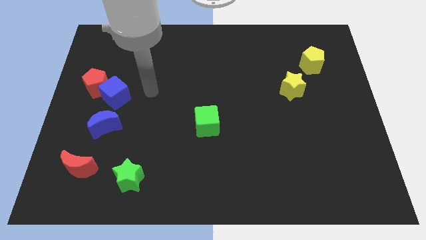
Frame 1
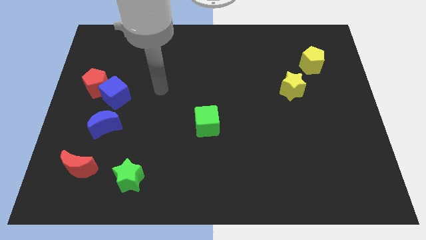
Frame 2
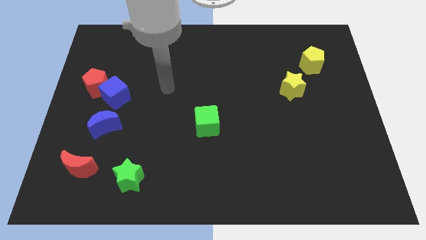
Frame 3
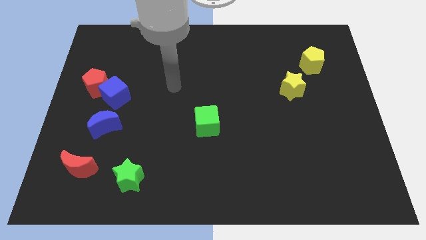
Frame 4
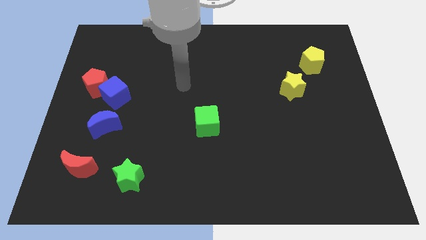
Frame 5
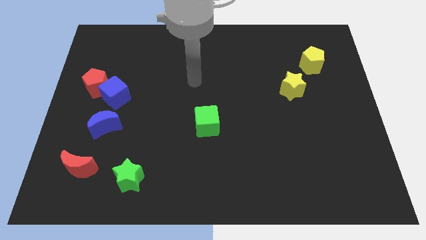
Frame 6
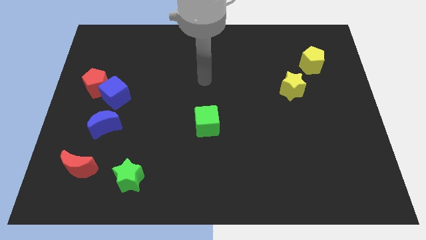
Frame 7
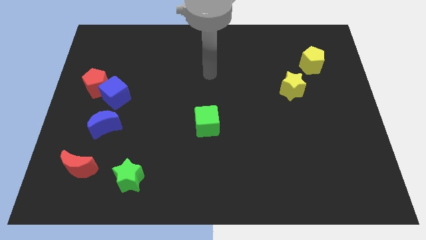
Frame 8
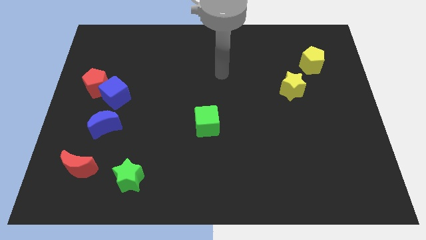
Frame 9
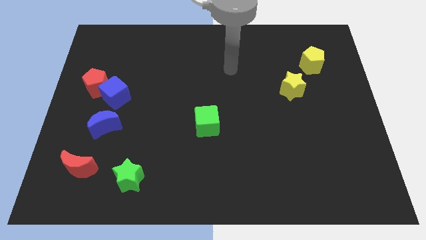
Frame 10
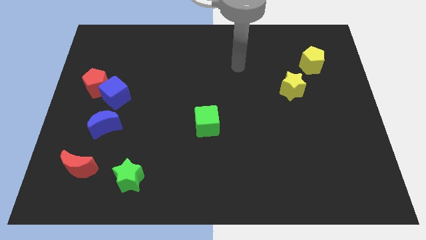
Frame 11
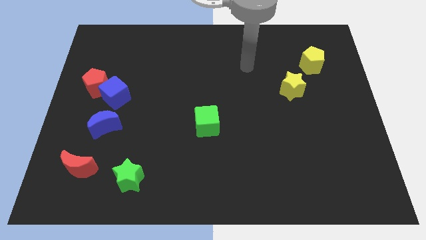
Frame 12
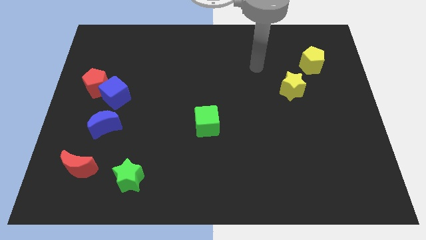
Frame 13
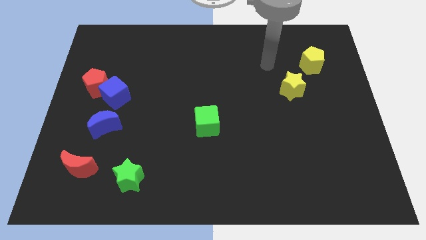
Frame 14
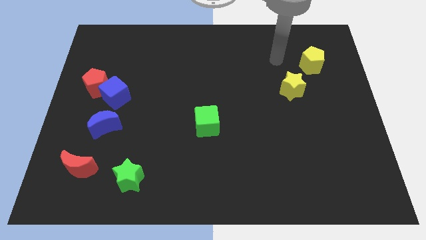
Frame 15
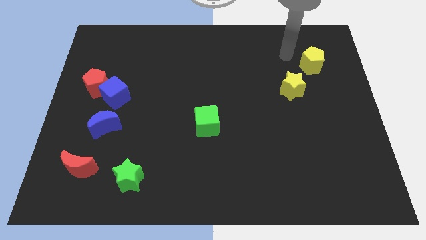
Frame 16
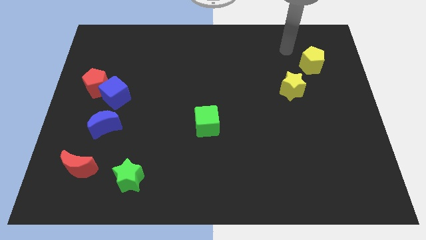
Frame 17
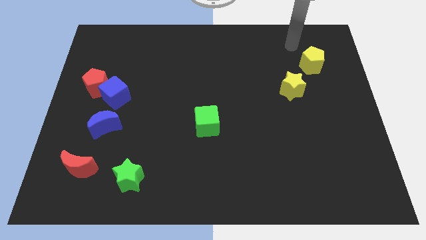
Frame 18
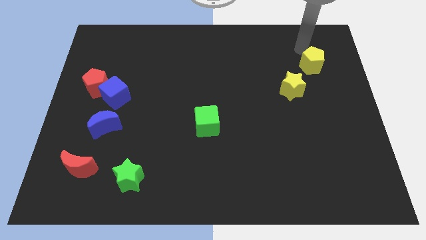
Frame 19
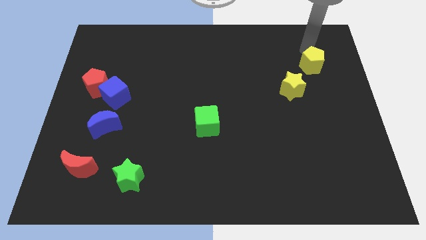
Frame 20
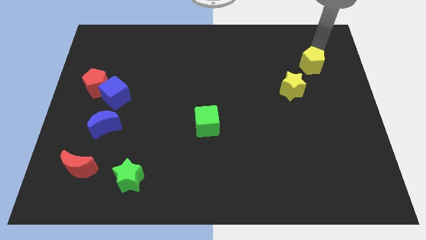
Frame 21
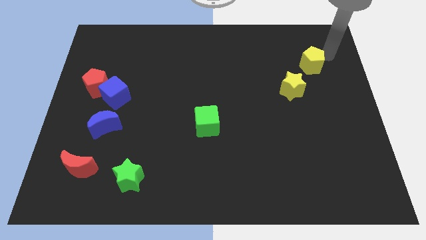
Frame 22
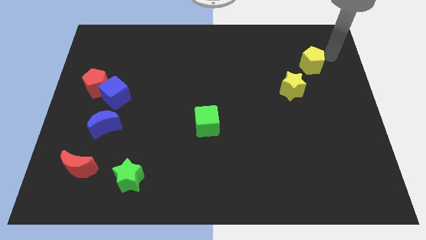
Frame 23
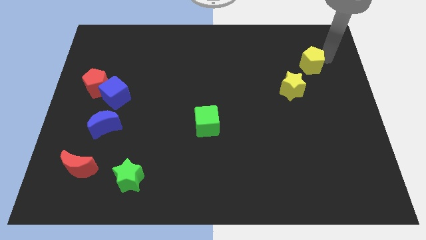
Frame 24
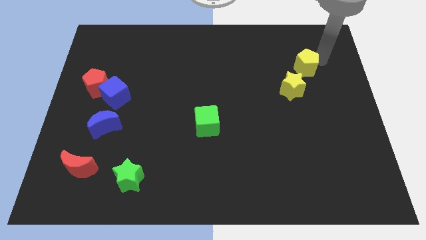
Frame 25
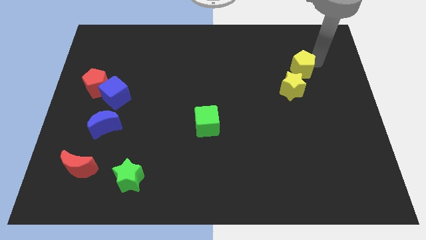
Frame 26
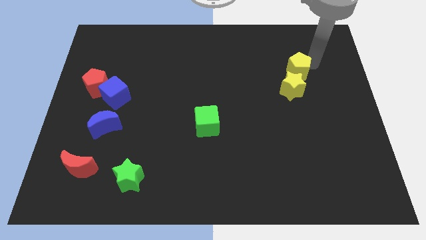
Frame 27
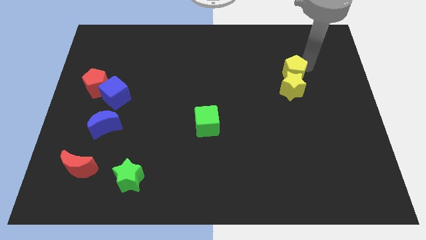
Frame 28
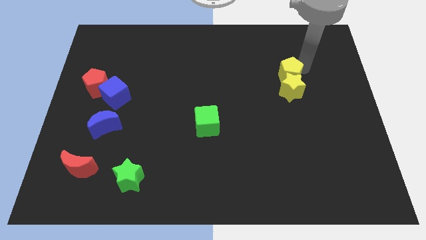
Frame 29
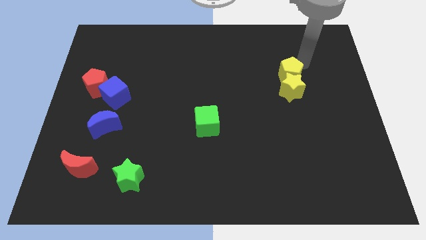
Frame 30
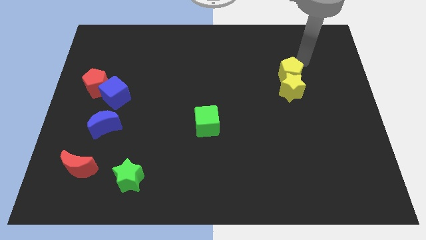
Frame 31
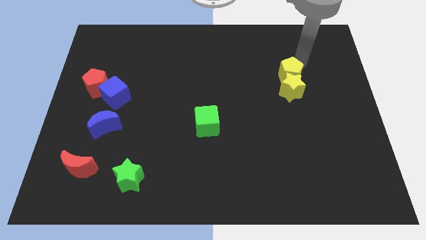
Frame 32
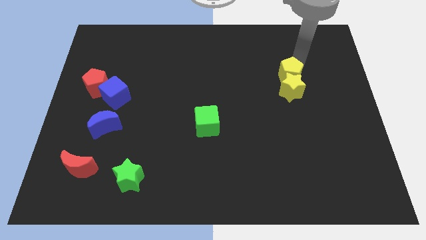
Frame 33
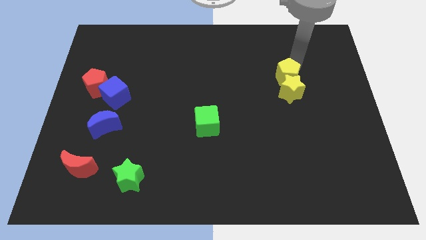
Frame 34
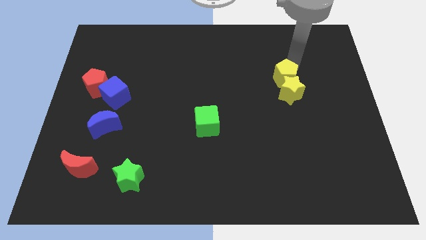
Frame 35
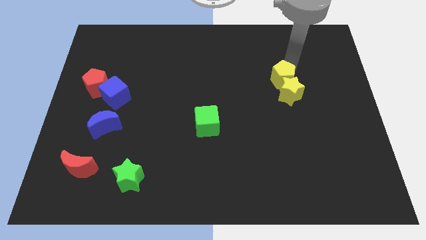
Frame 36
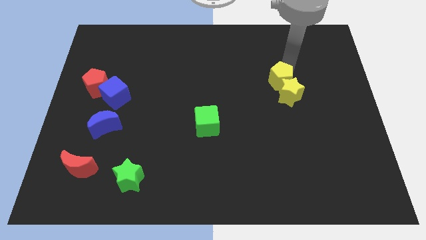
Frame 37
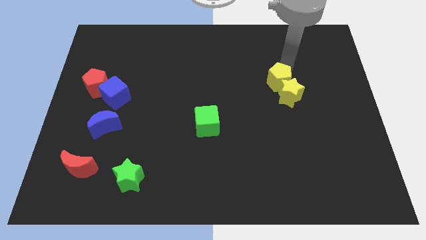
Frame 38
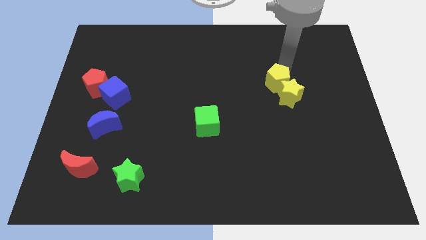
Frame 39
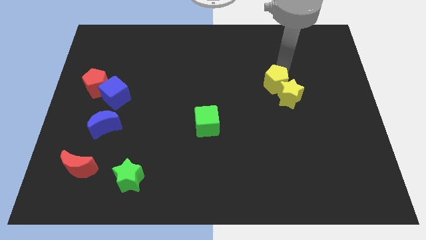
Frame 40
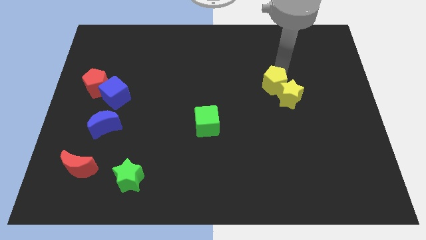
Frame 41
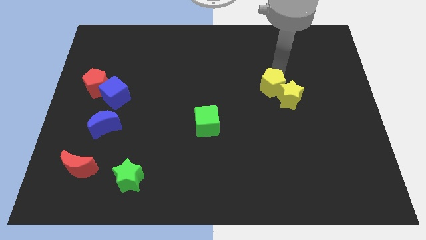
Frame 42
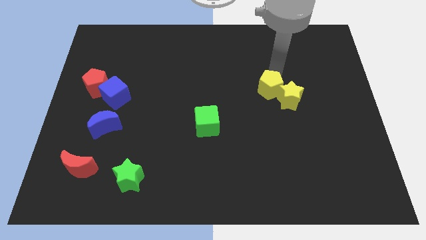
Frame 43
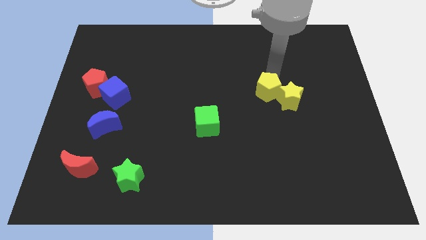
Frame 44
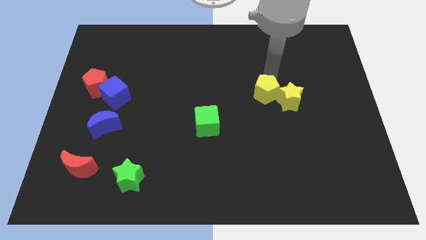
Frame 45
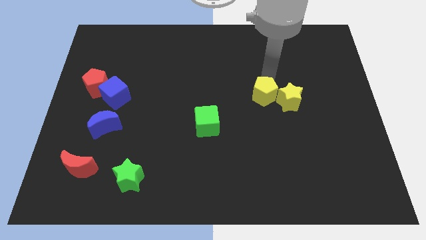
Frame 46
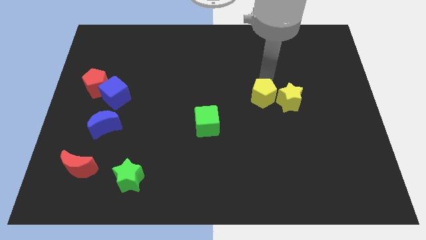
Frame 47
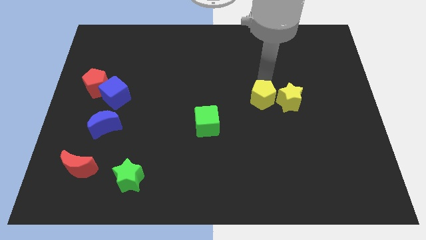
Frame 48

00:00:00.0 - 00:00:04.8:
push the yellow pentagon to the bottom left side of the yellow star

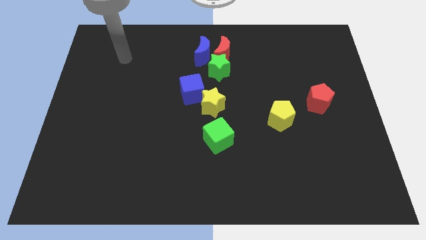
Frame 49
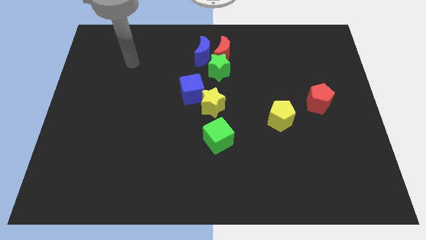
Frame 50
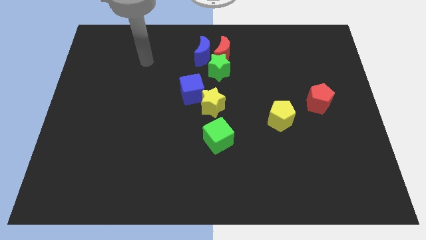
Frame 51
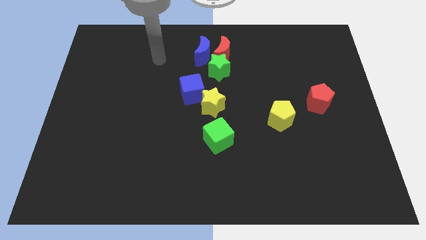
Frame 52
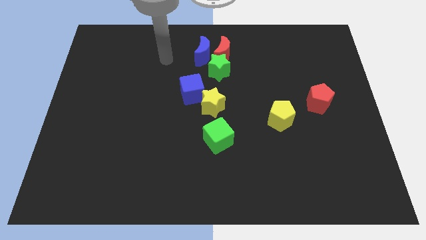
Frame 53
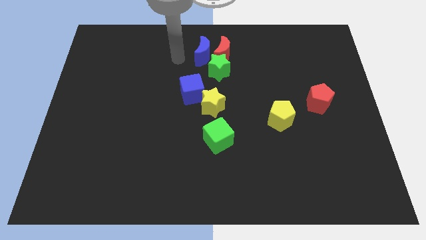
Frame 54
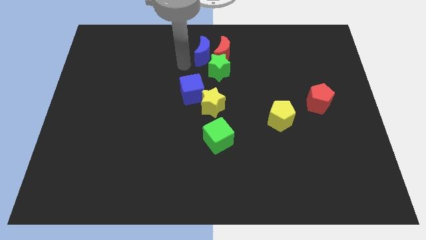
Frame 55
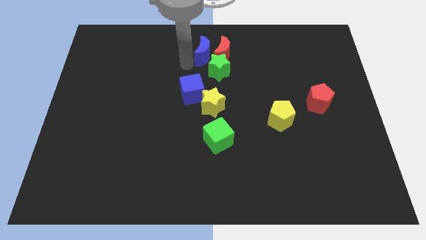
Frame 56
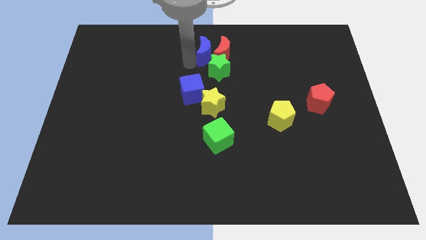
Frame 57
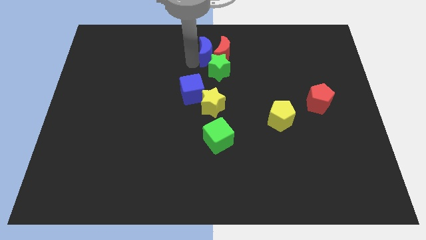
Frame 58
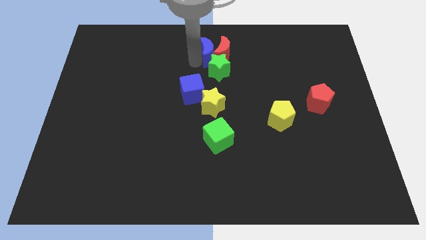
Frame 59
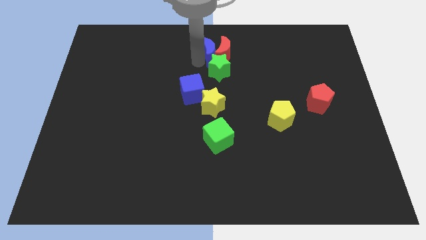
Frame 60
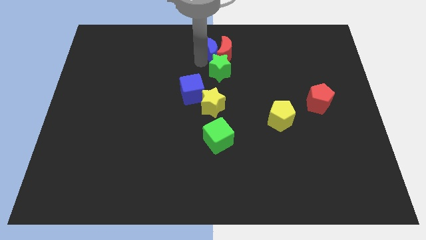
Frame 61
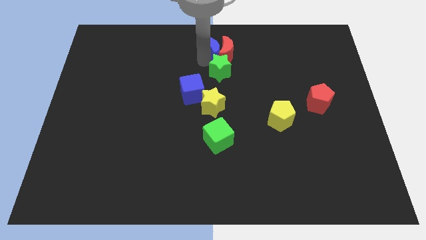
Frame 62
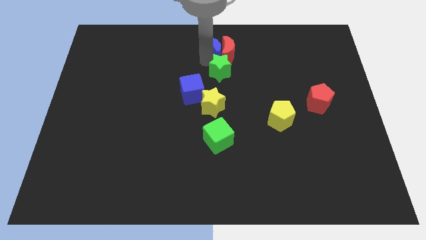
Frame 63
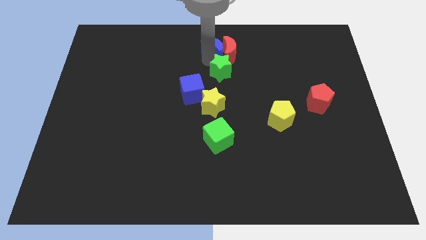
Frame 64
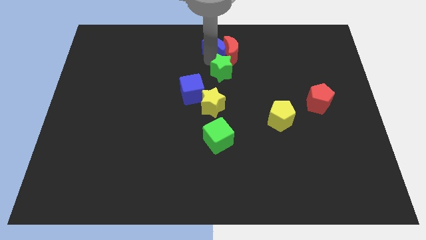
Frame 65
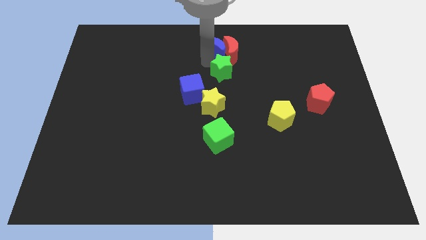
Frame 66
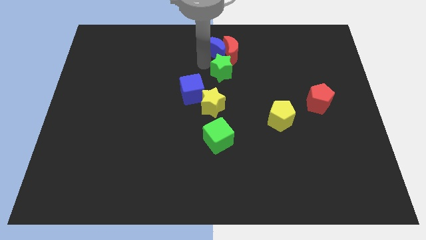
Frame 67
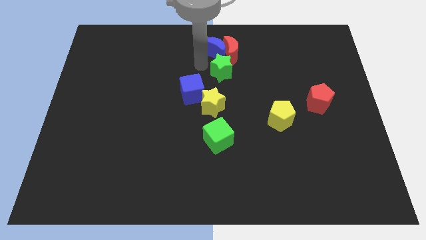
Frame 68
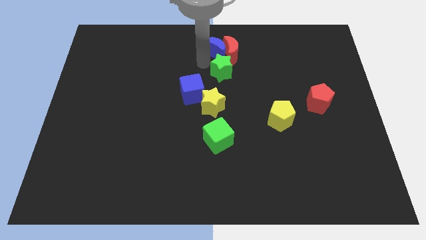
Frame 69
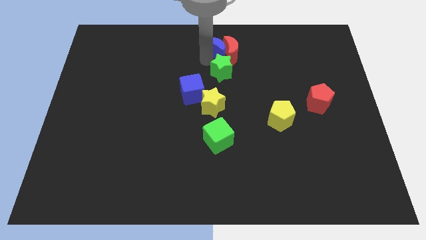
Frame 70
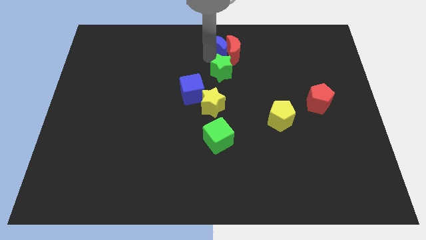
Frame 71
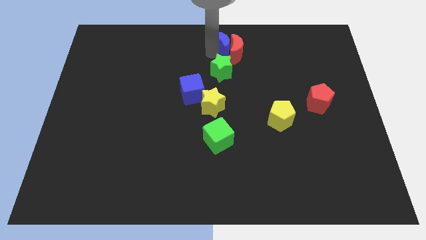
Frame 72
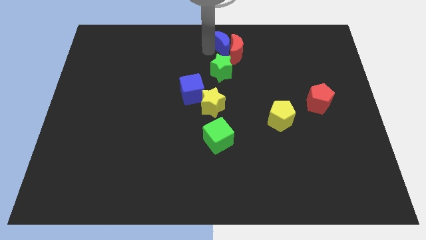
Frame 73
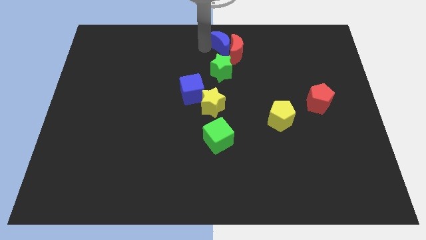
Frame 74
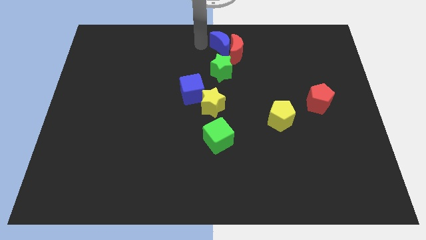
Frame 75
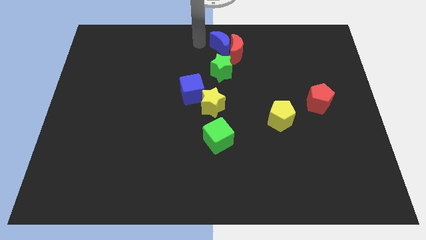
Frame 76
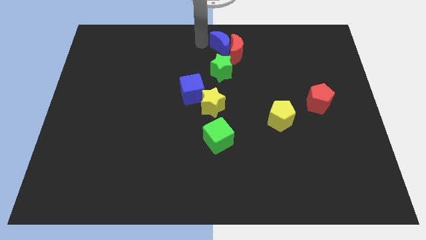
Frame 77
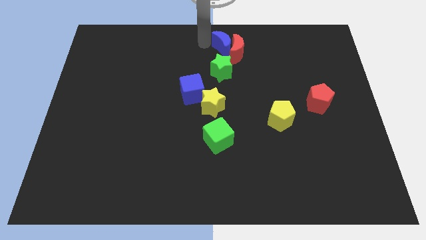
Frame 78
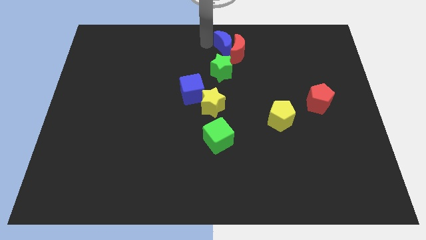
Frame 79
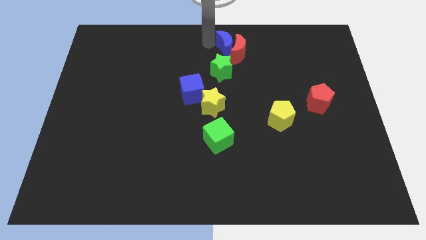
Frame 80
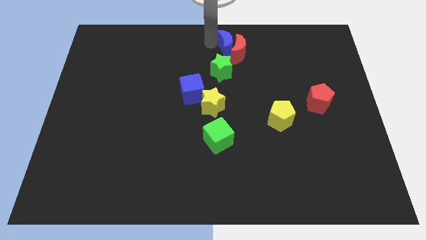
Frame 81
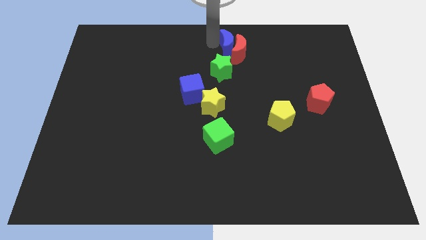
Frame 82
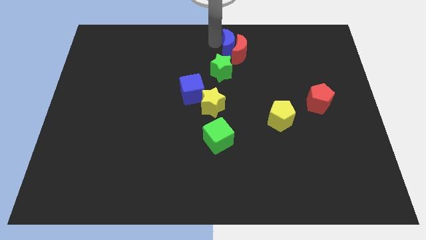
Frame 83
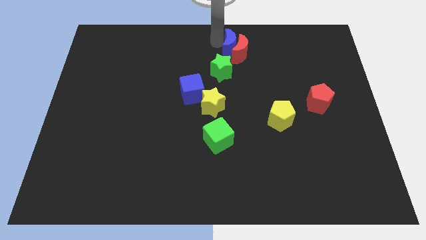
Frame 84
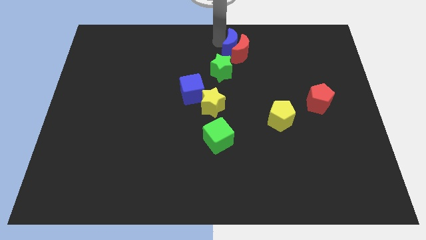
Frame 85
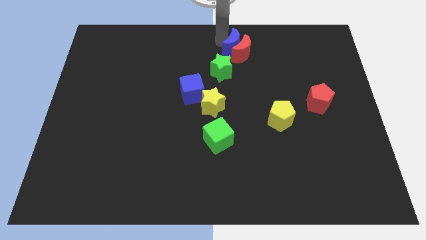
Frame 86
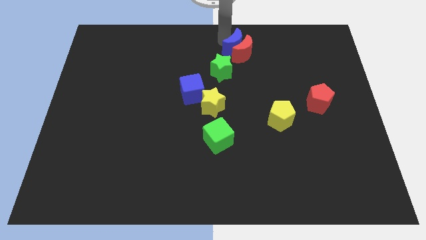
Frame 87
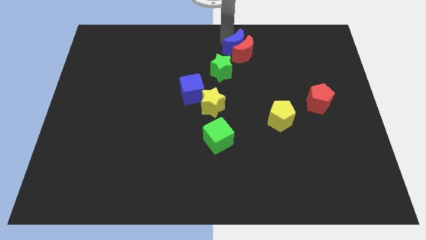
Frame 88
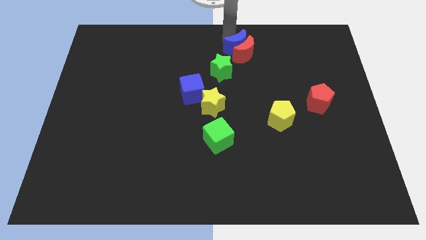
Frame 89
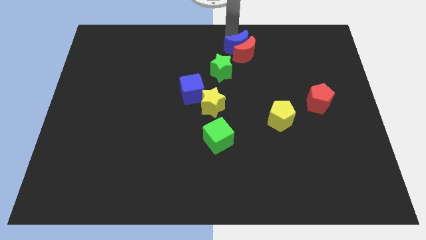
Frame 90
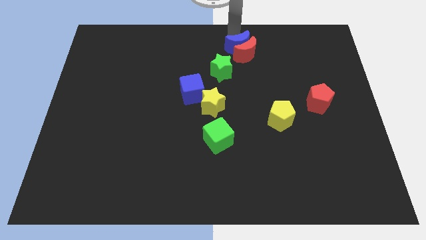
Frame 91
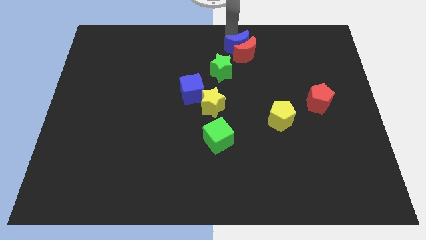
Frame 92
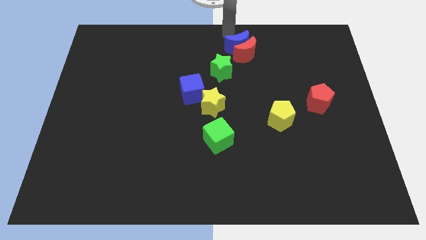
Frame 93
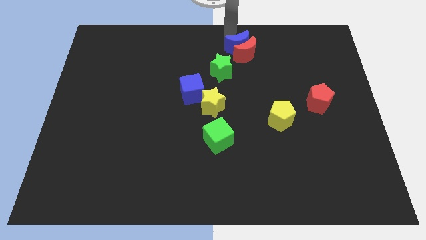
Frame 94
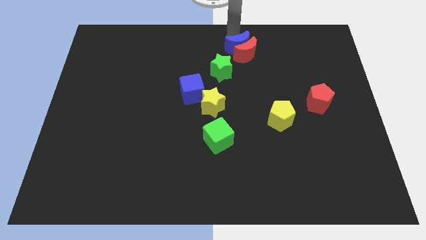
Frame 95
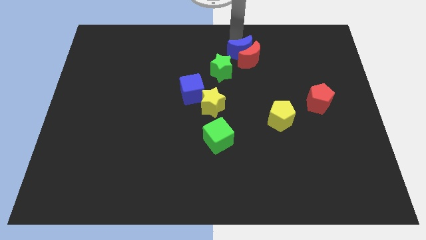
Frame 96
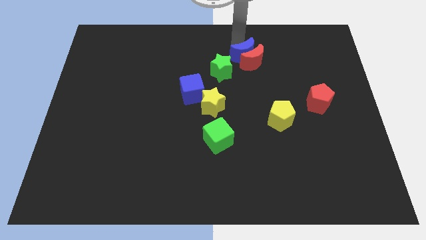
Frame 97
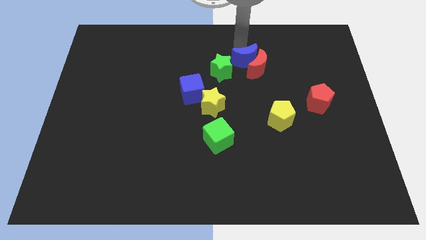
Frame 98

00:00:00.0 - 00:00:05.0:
move the blue moon right of the green star
